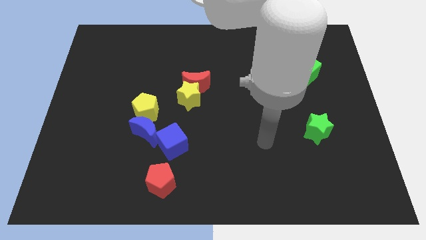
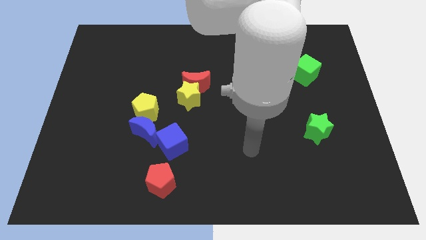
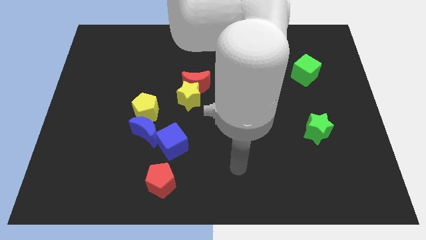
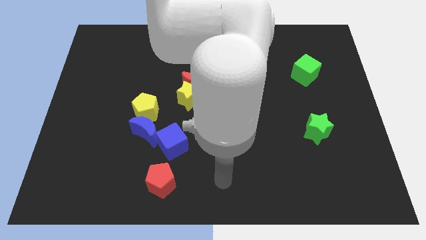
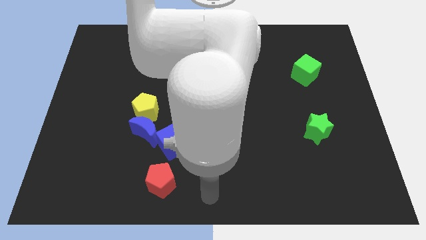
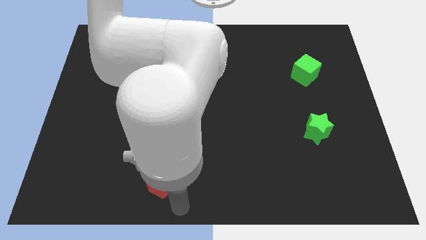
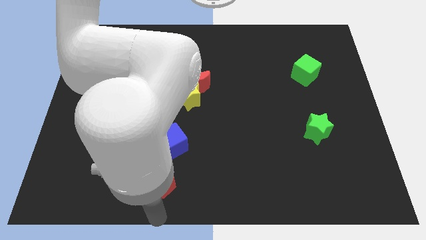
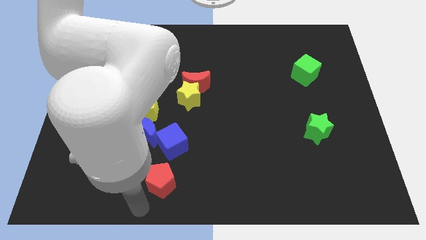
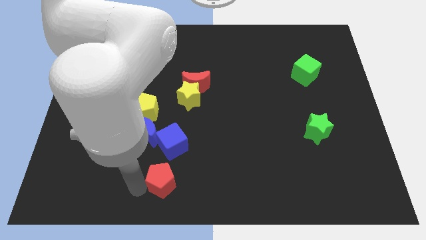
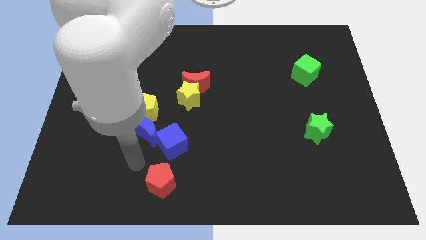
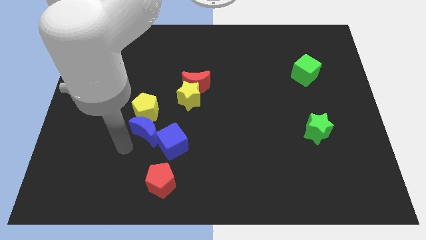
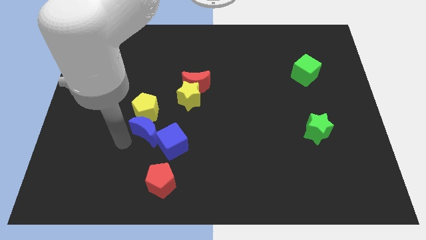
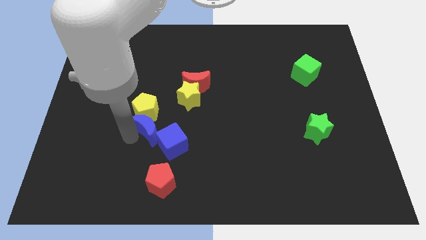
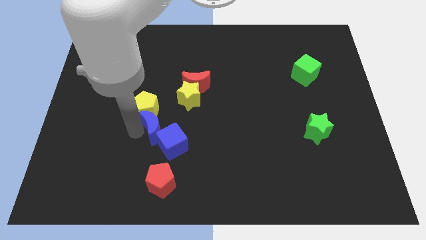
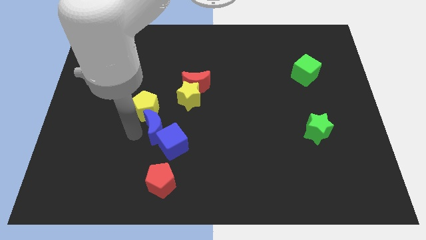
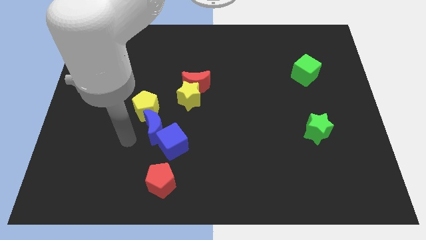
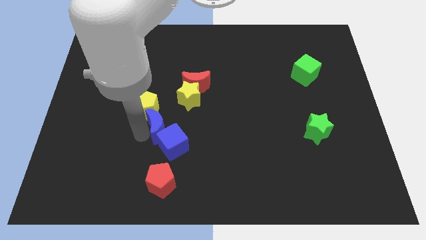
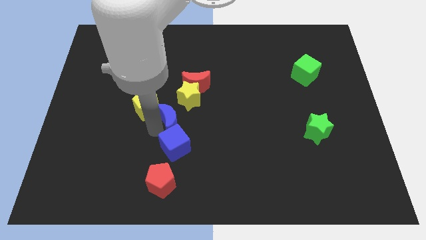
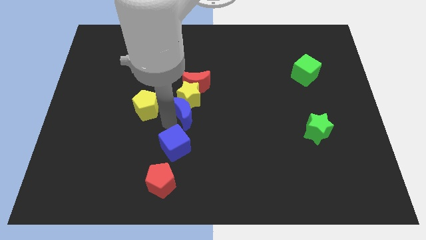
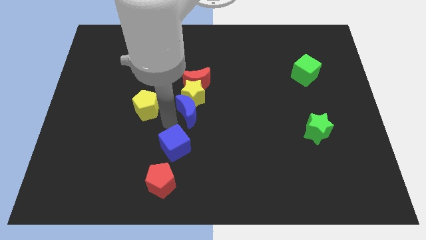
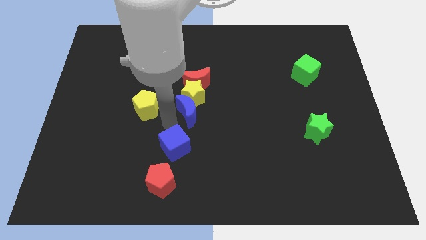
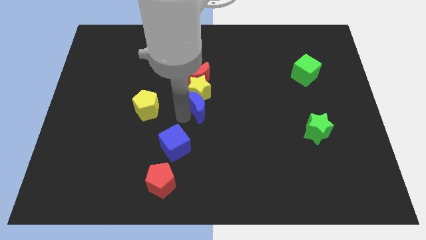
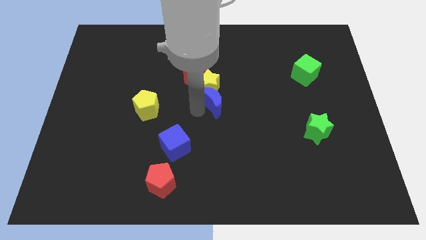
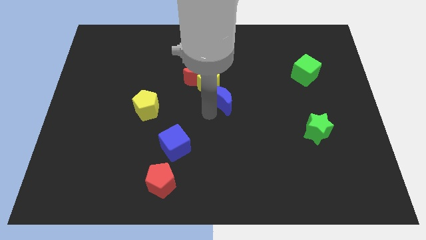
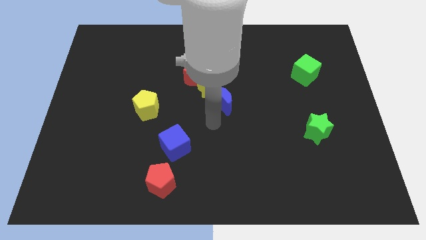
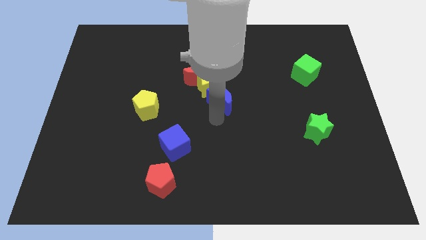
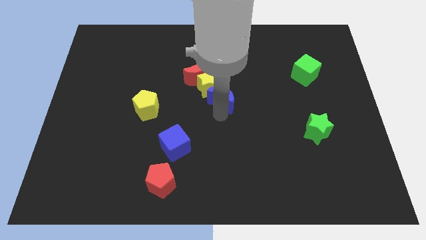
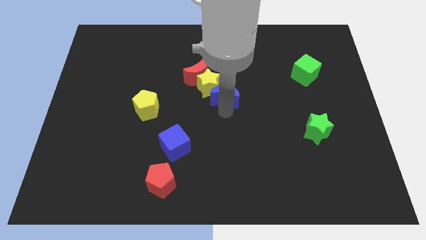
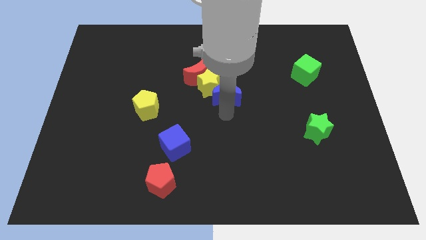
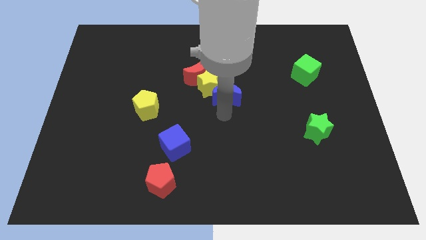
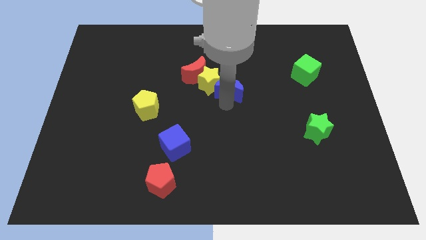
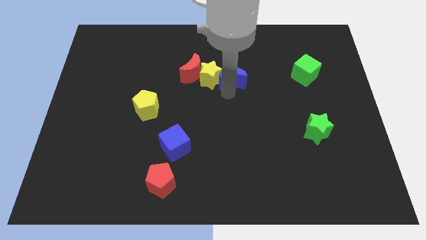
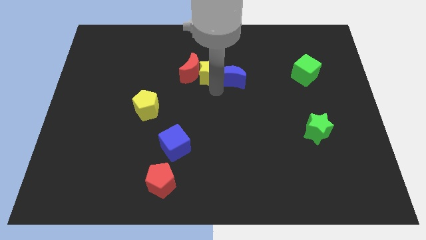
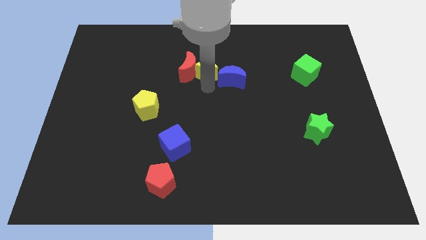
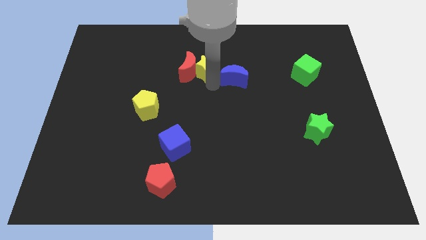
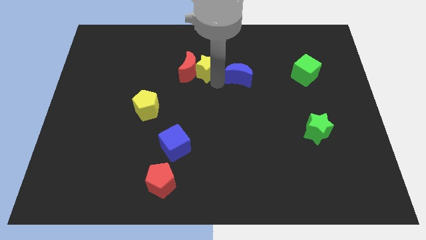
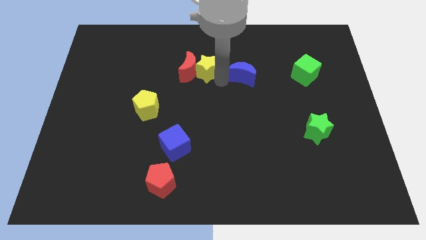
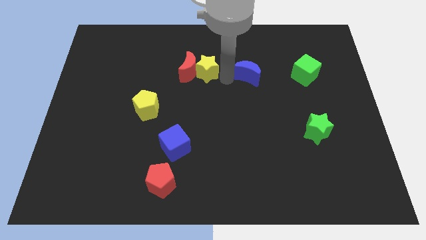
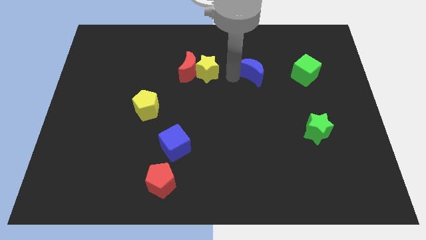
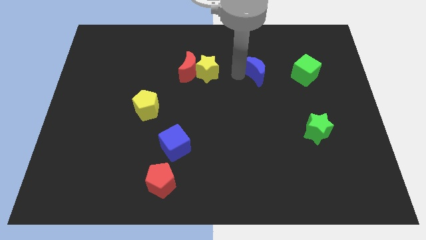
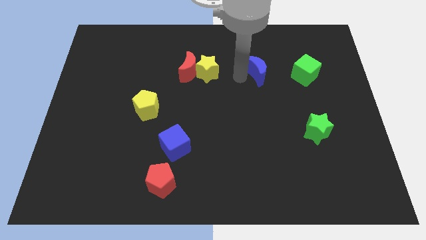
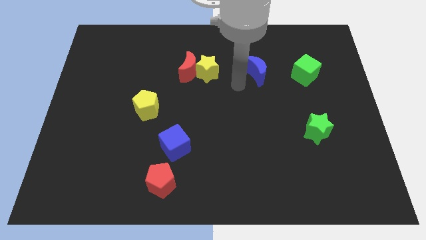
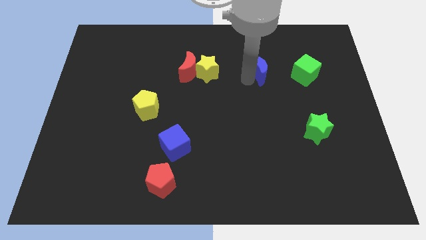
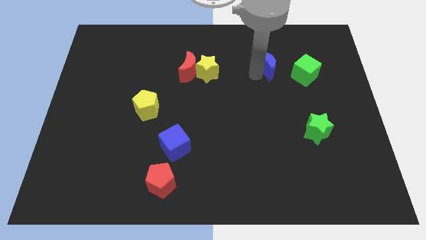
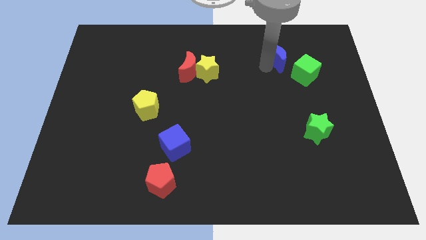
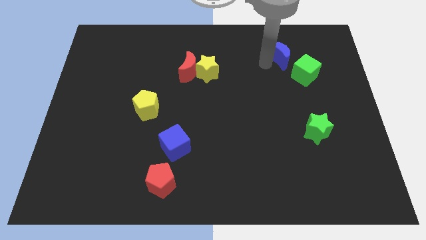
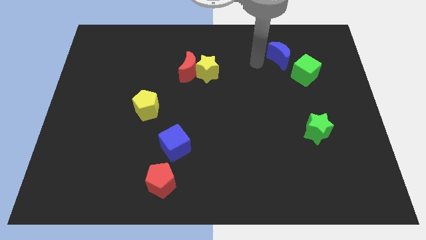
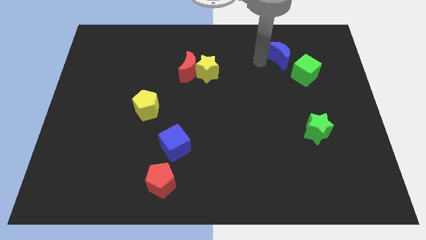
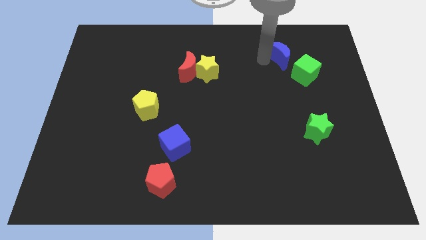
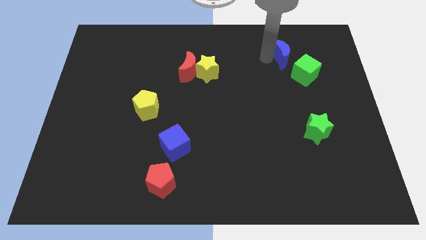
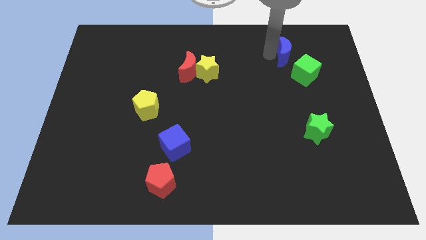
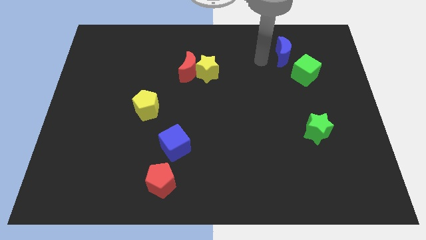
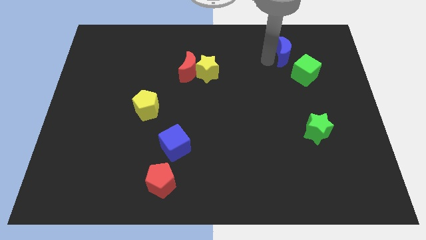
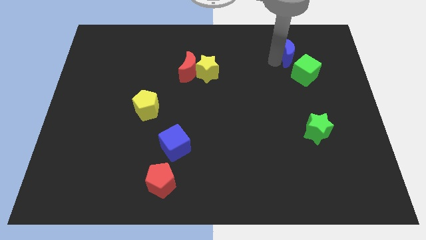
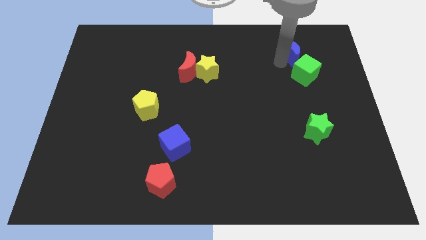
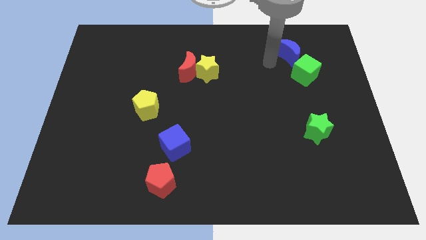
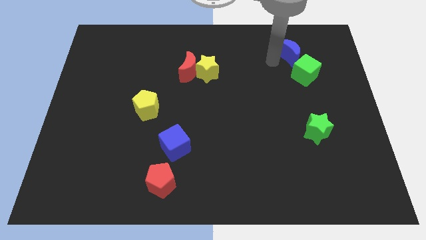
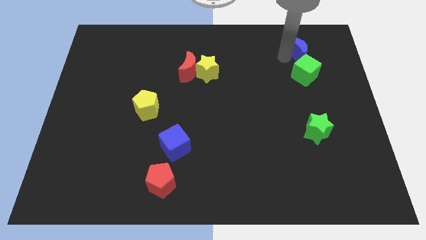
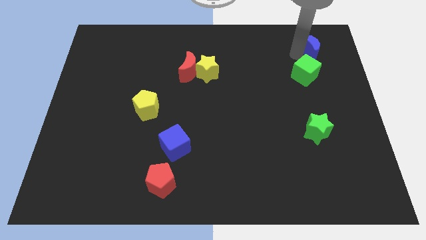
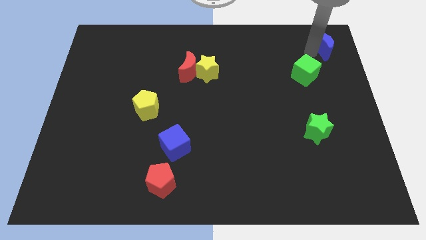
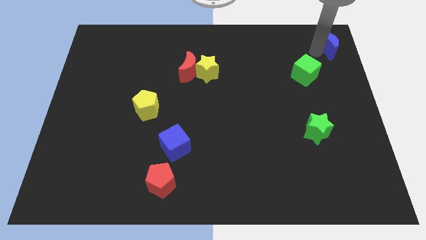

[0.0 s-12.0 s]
slide the blue moon to the top right
